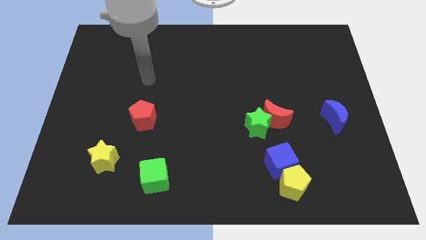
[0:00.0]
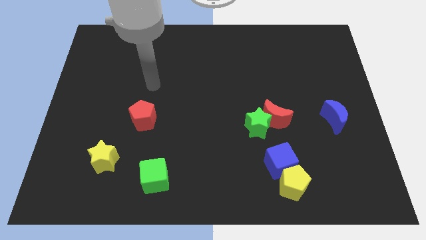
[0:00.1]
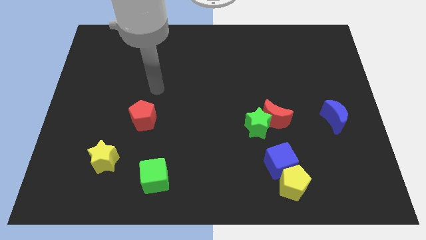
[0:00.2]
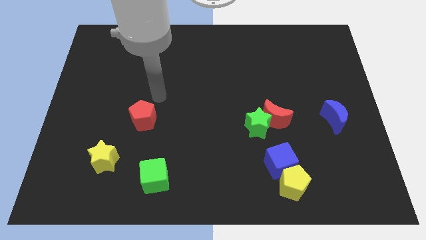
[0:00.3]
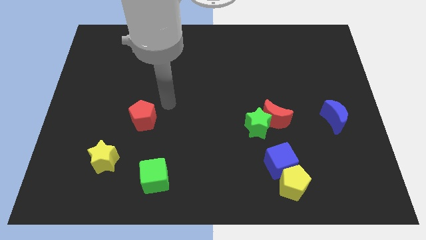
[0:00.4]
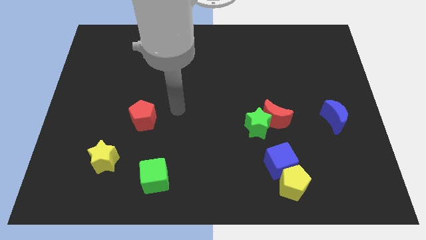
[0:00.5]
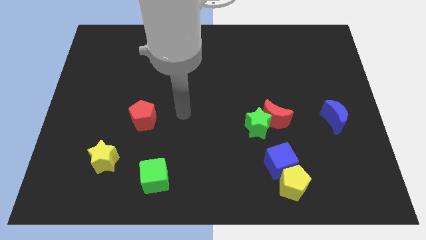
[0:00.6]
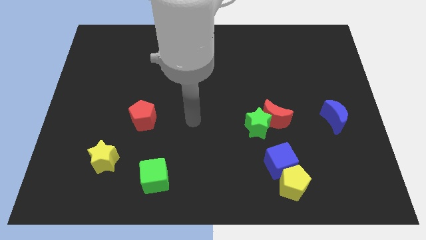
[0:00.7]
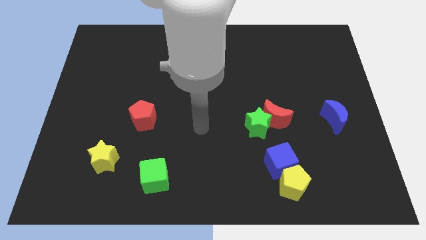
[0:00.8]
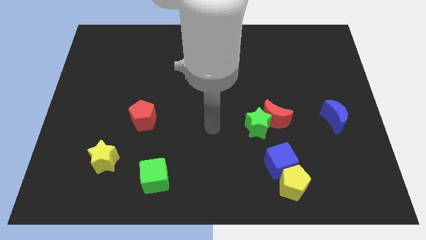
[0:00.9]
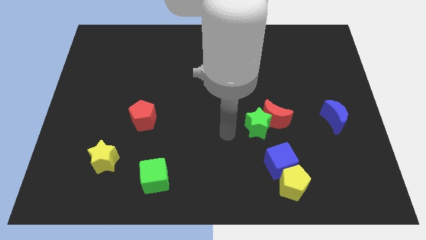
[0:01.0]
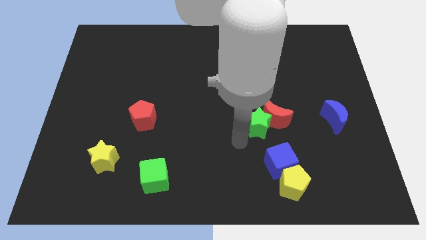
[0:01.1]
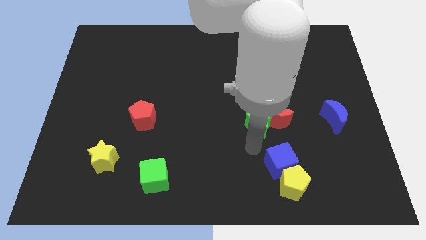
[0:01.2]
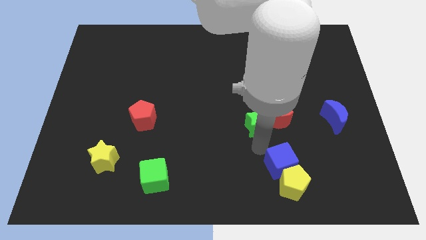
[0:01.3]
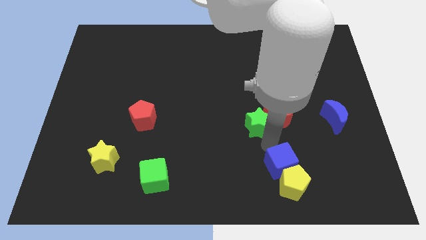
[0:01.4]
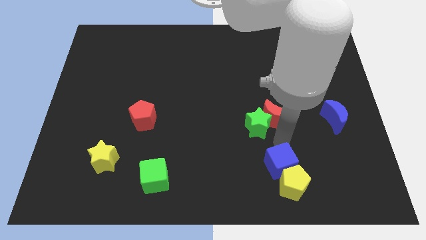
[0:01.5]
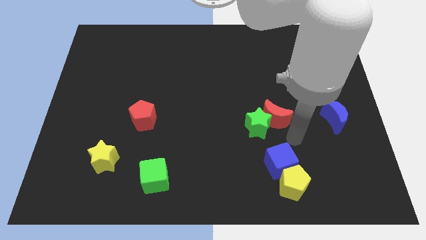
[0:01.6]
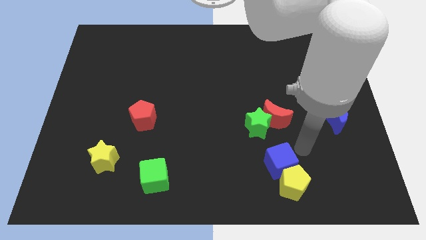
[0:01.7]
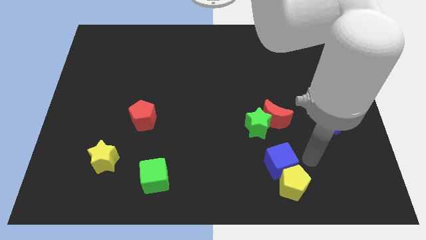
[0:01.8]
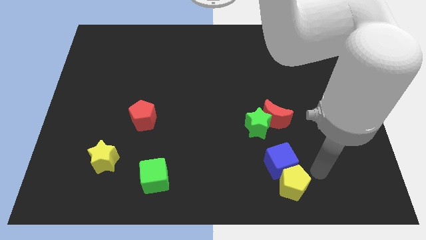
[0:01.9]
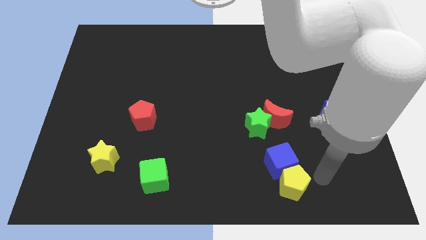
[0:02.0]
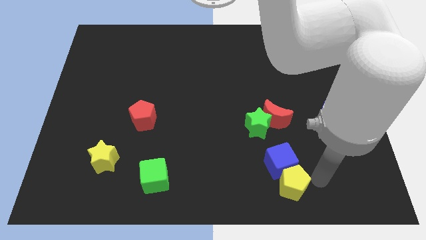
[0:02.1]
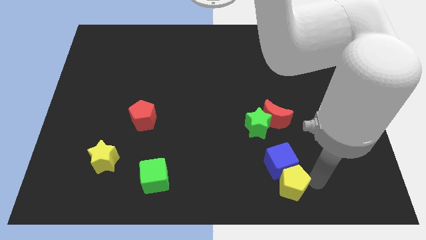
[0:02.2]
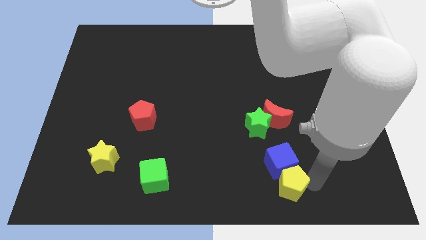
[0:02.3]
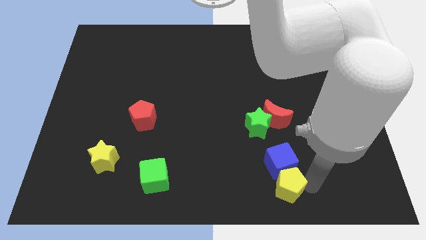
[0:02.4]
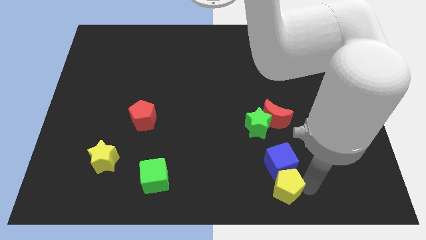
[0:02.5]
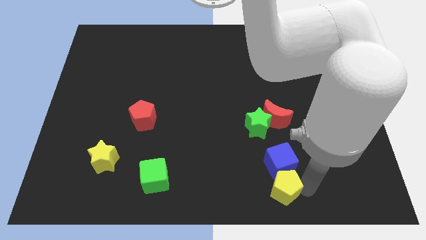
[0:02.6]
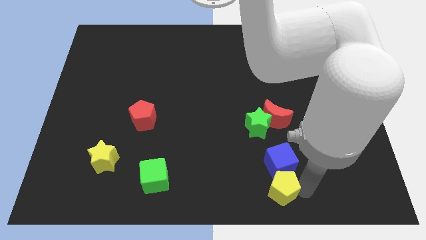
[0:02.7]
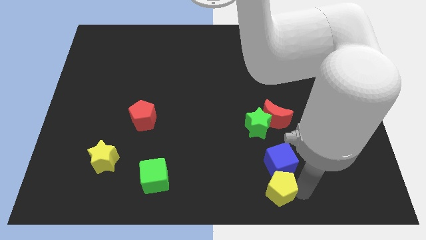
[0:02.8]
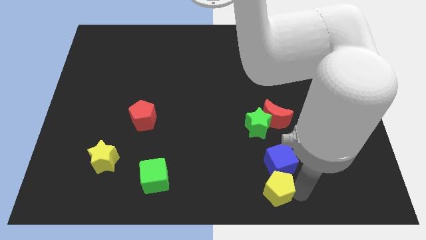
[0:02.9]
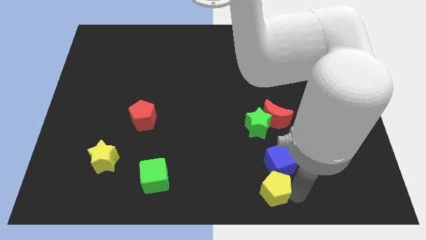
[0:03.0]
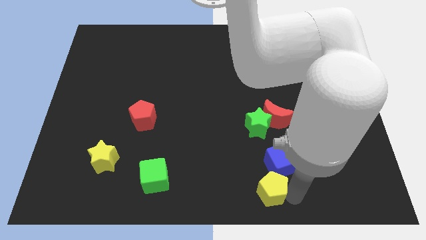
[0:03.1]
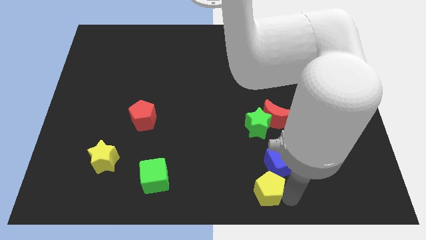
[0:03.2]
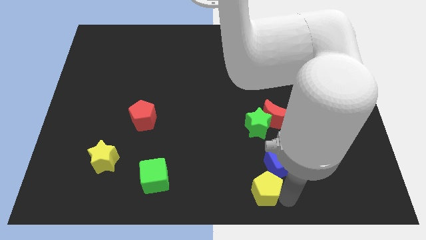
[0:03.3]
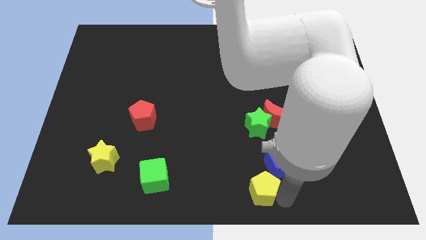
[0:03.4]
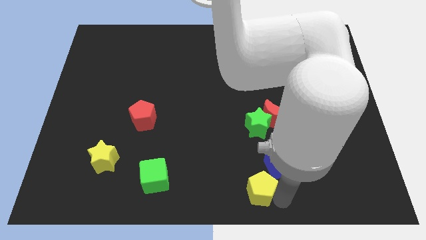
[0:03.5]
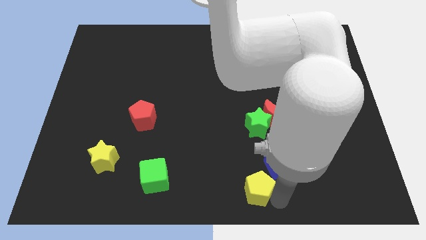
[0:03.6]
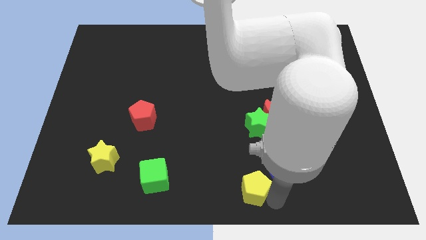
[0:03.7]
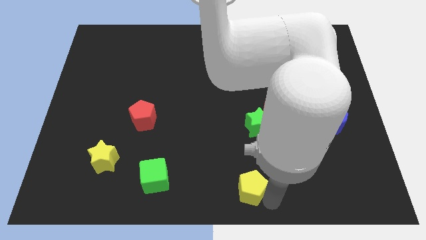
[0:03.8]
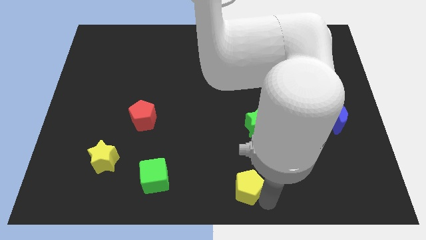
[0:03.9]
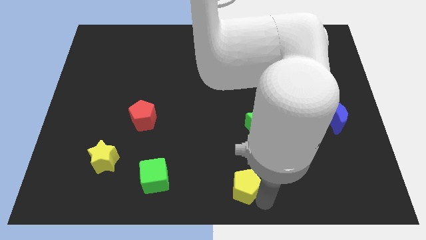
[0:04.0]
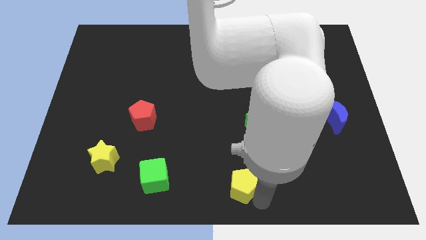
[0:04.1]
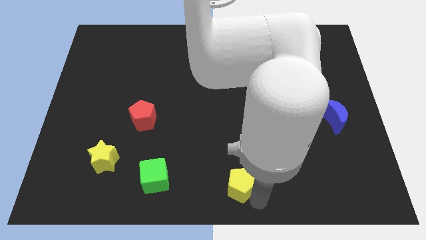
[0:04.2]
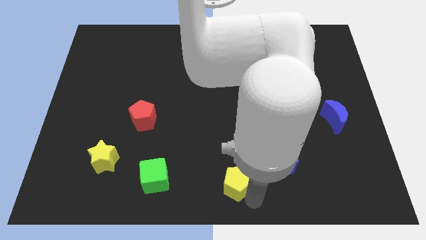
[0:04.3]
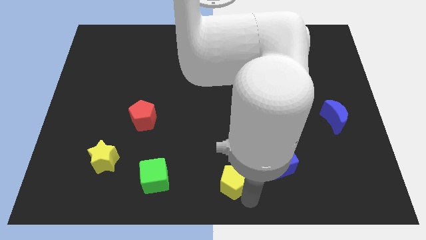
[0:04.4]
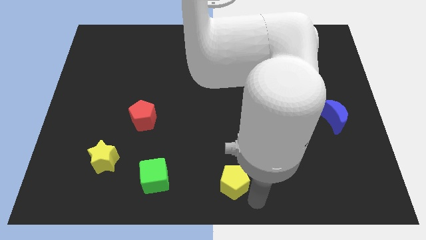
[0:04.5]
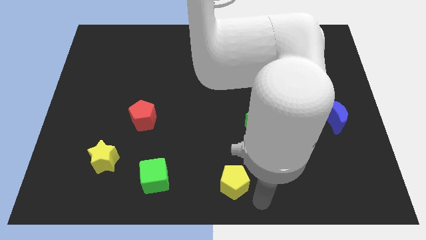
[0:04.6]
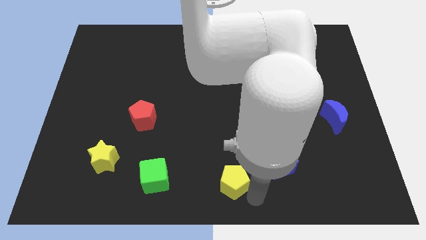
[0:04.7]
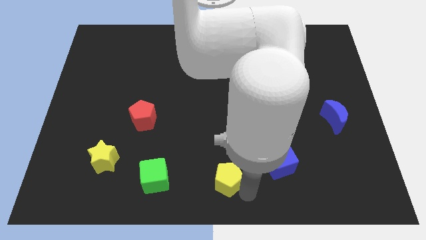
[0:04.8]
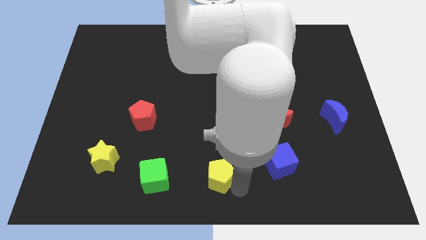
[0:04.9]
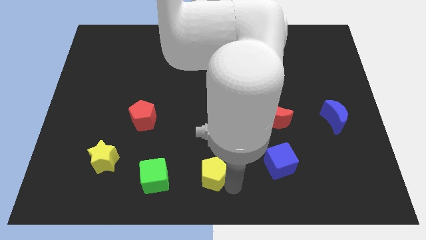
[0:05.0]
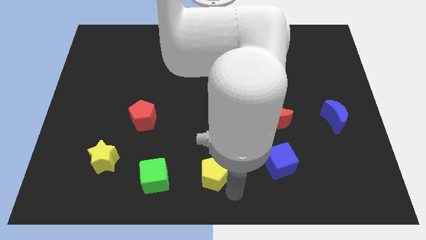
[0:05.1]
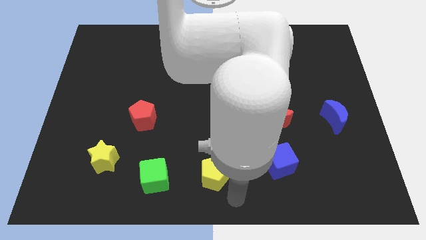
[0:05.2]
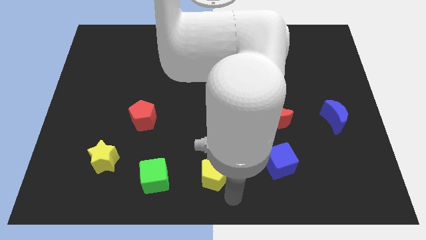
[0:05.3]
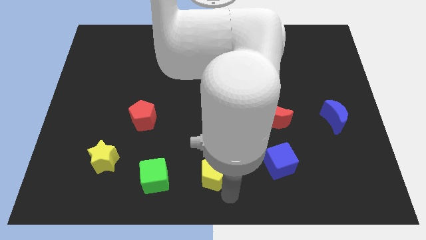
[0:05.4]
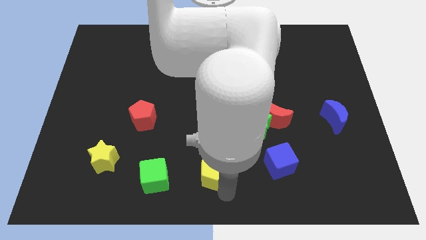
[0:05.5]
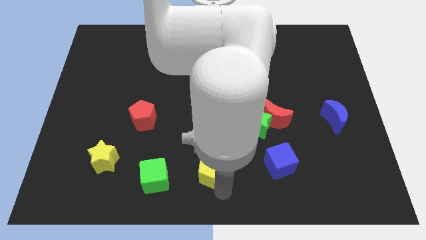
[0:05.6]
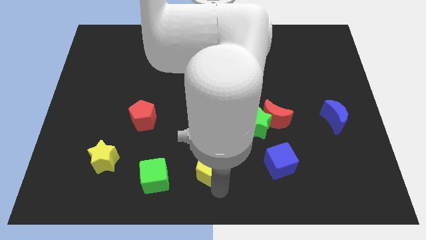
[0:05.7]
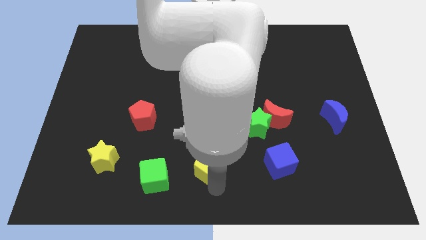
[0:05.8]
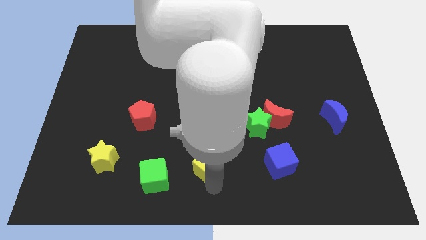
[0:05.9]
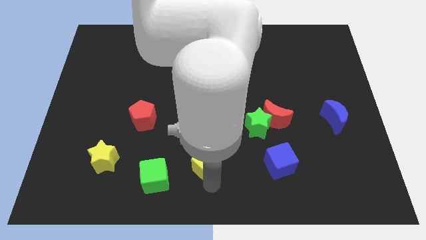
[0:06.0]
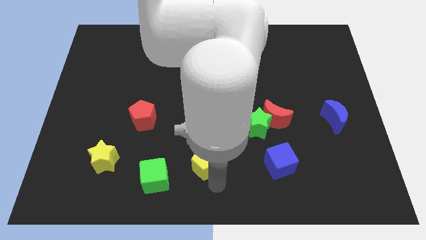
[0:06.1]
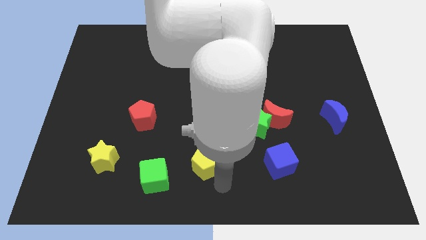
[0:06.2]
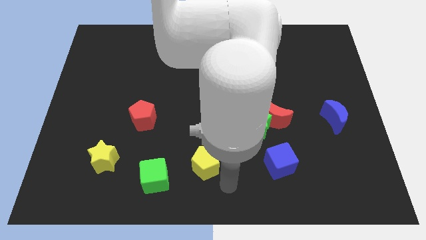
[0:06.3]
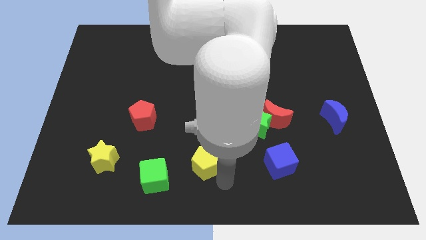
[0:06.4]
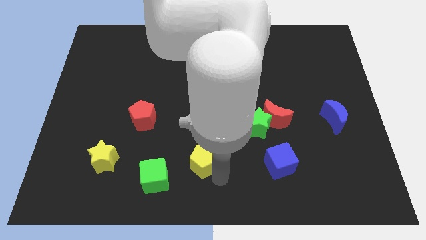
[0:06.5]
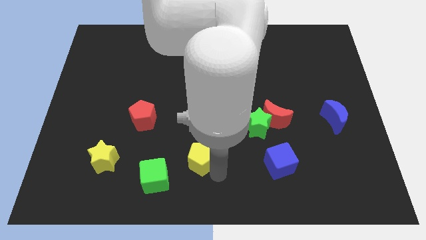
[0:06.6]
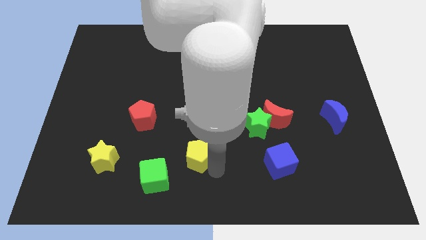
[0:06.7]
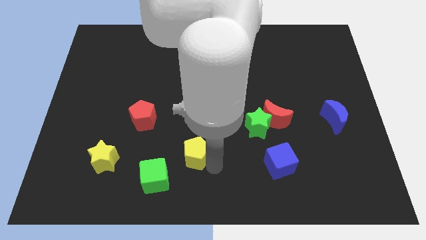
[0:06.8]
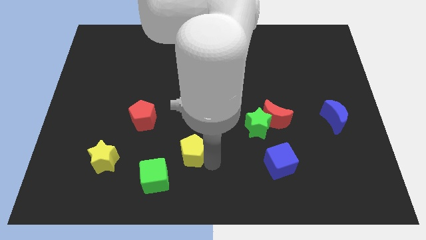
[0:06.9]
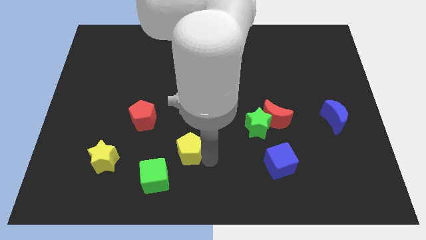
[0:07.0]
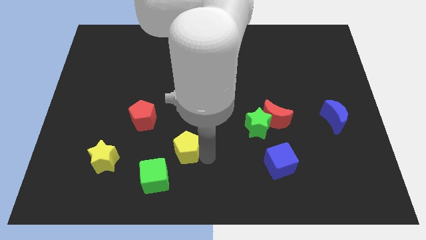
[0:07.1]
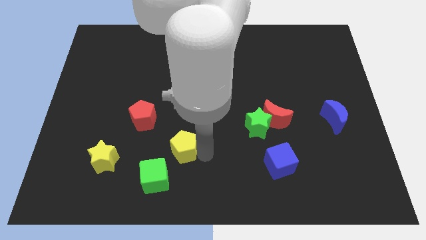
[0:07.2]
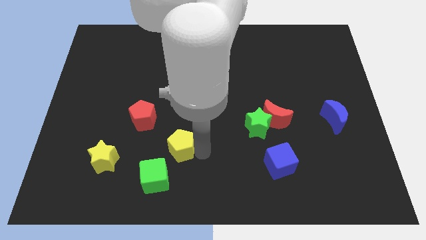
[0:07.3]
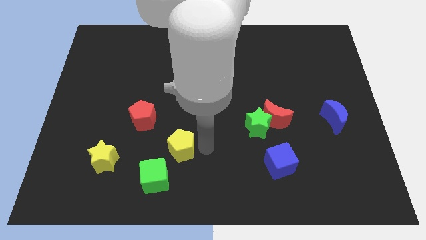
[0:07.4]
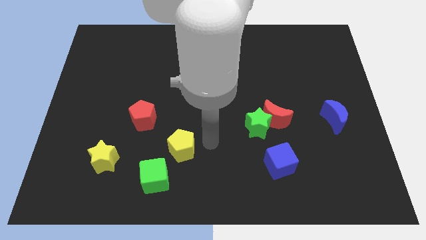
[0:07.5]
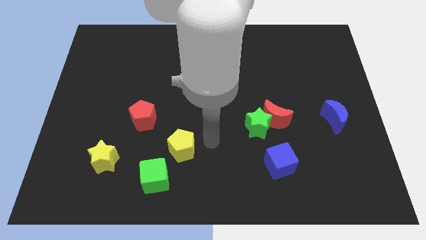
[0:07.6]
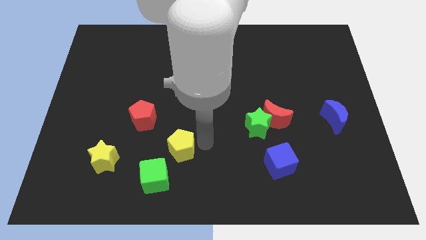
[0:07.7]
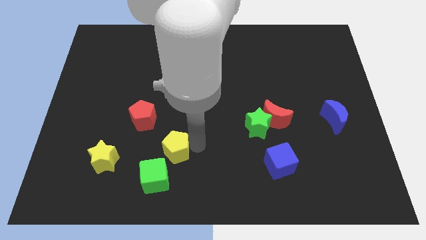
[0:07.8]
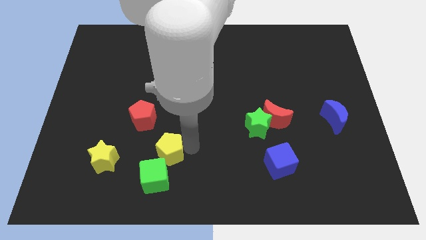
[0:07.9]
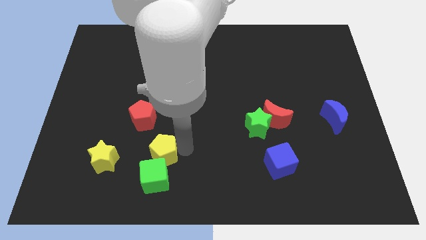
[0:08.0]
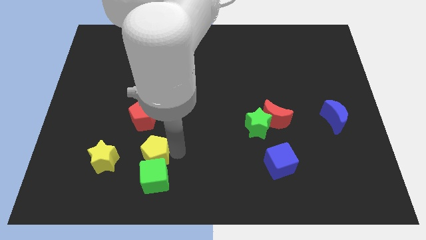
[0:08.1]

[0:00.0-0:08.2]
push the yellow pentagon diagonally up and to the left of the green cube
